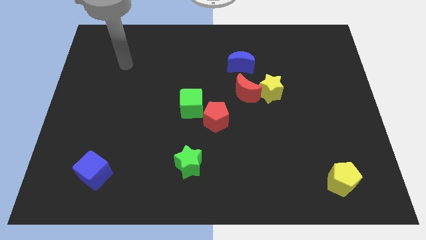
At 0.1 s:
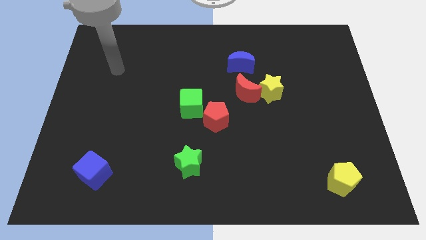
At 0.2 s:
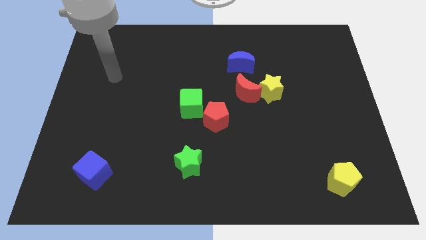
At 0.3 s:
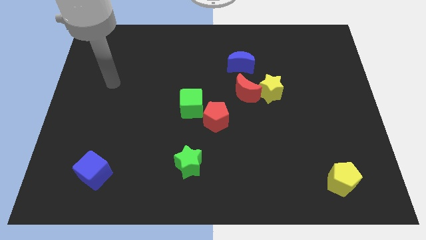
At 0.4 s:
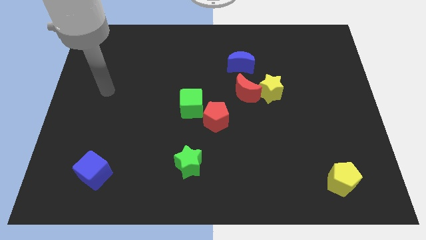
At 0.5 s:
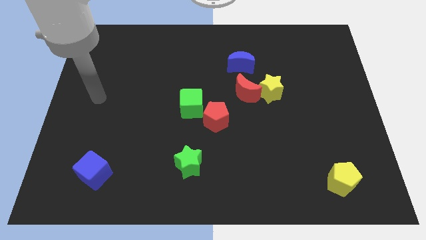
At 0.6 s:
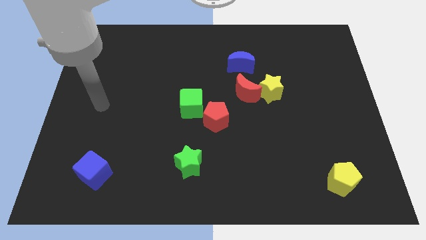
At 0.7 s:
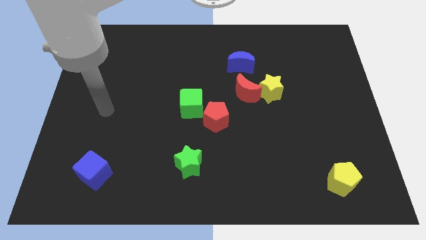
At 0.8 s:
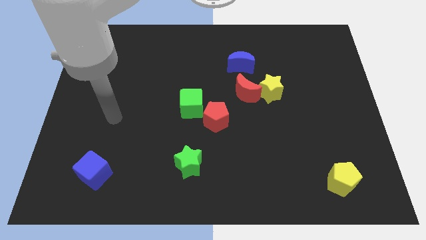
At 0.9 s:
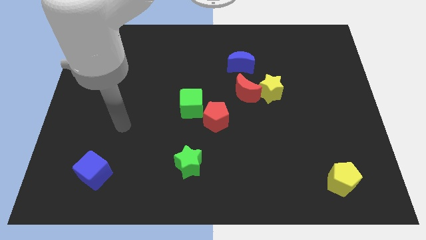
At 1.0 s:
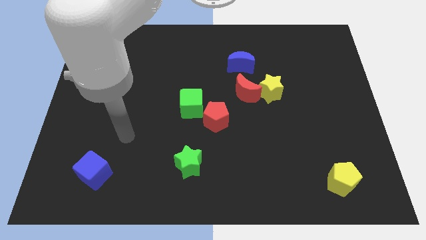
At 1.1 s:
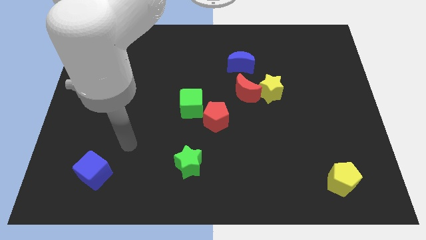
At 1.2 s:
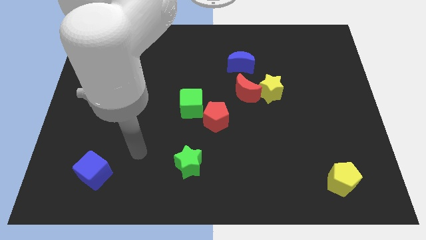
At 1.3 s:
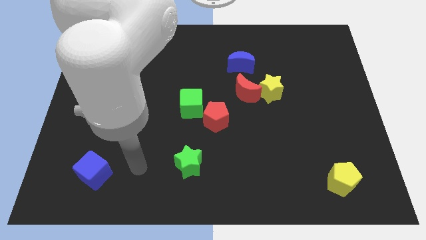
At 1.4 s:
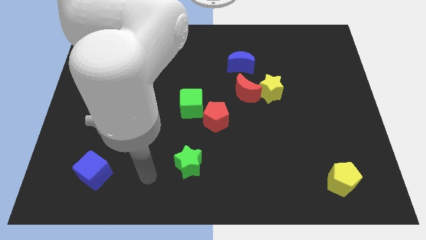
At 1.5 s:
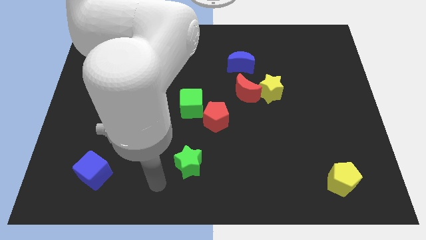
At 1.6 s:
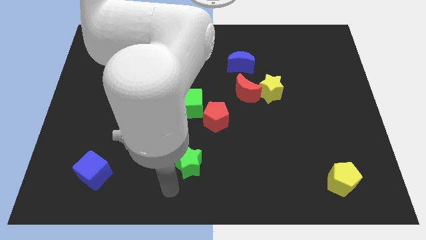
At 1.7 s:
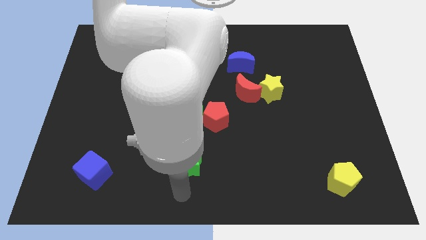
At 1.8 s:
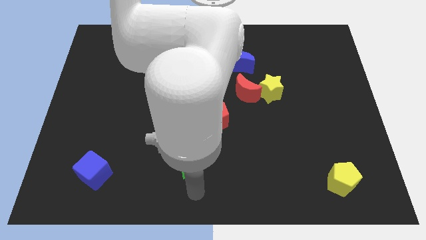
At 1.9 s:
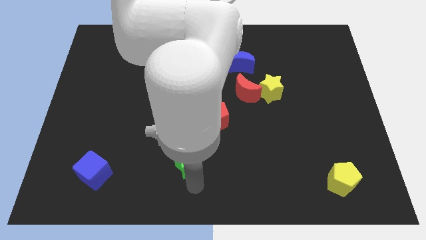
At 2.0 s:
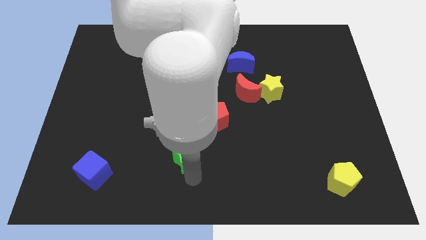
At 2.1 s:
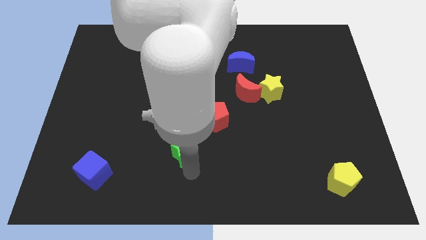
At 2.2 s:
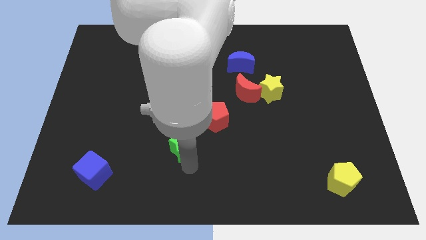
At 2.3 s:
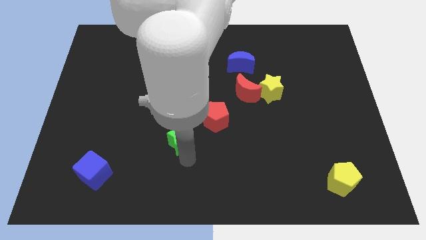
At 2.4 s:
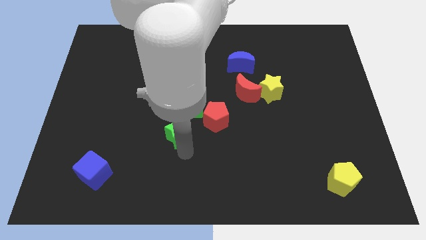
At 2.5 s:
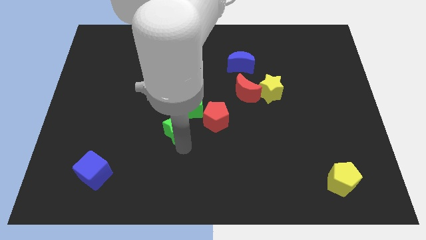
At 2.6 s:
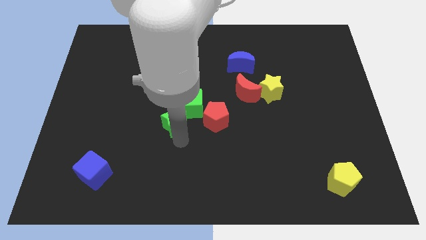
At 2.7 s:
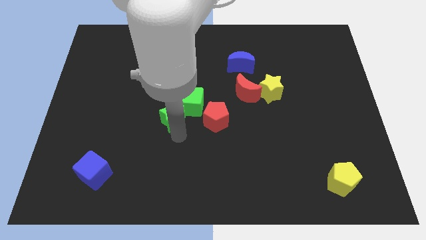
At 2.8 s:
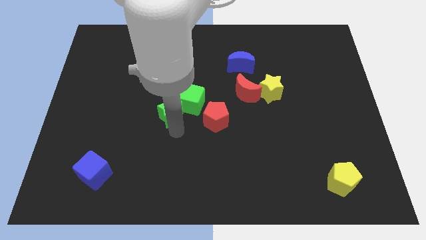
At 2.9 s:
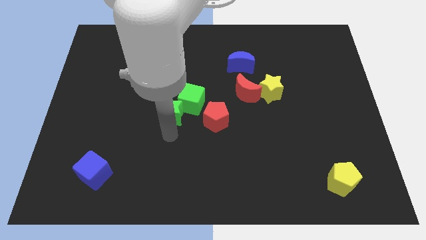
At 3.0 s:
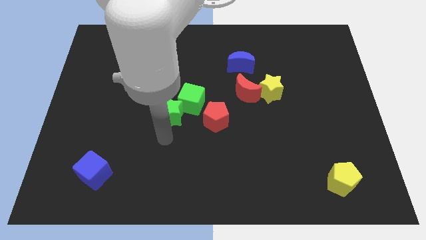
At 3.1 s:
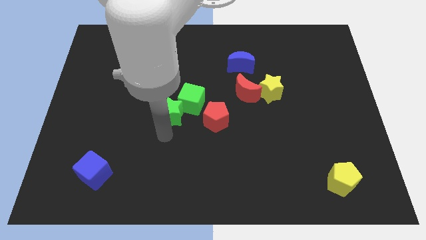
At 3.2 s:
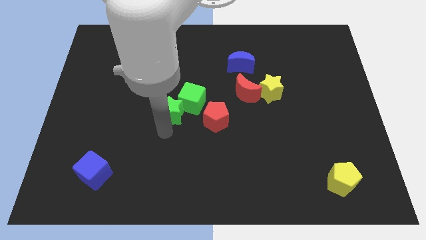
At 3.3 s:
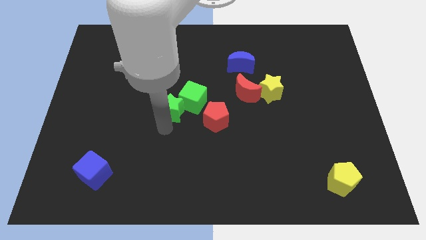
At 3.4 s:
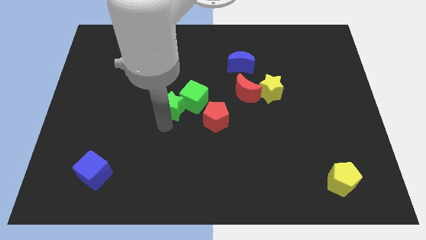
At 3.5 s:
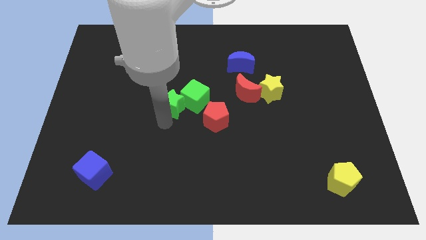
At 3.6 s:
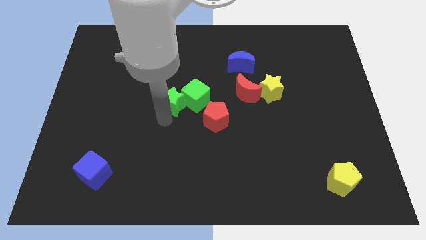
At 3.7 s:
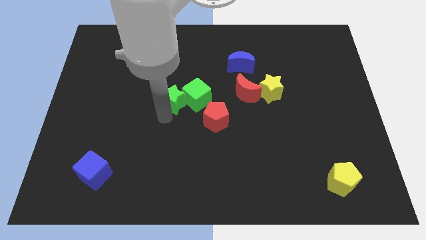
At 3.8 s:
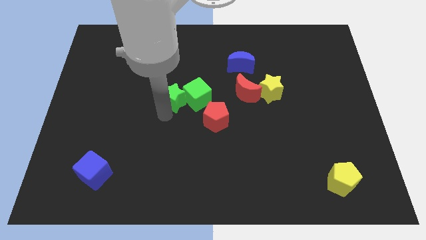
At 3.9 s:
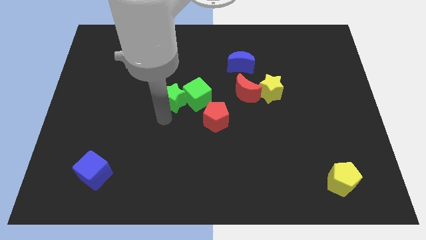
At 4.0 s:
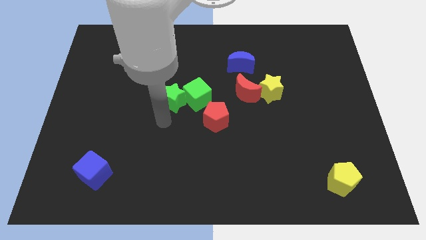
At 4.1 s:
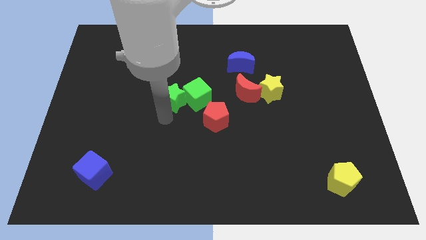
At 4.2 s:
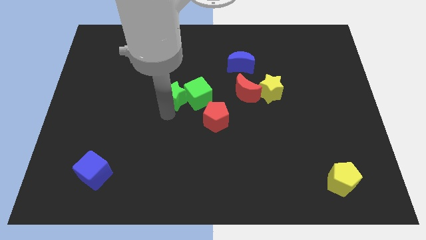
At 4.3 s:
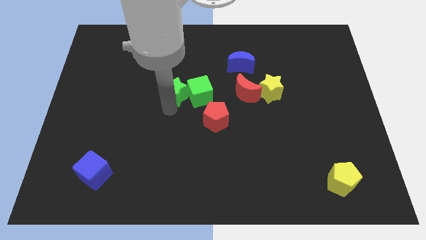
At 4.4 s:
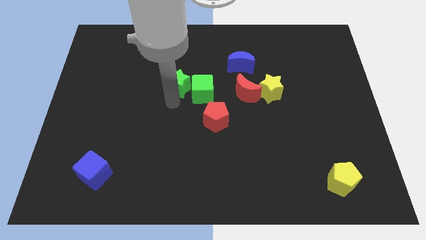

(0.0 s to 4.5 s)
push the green star up

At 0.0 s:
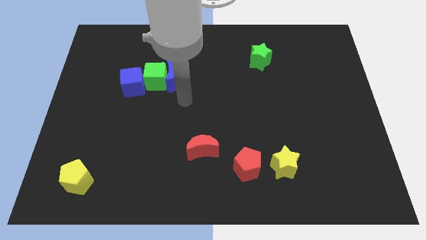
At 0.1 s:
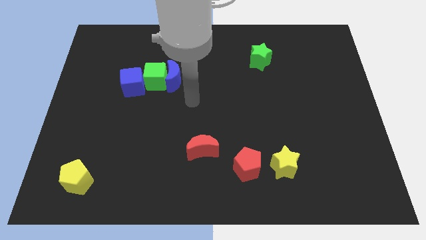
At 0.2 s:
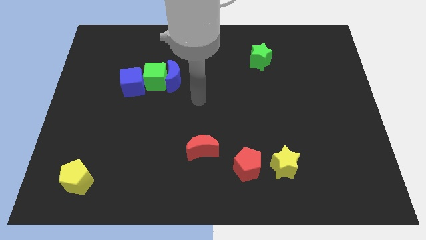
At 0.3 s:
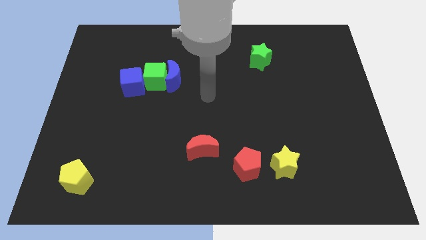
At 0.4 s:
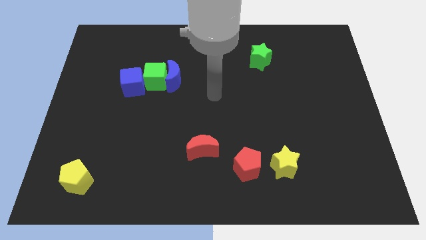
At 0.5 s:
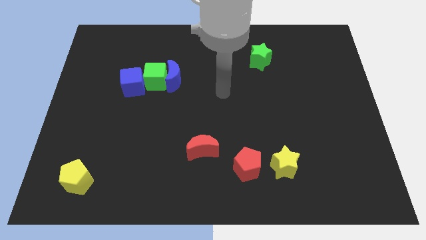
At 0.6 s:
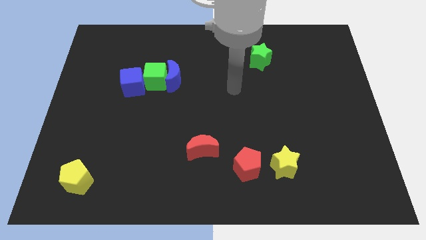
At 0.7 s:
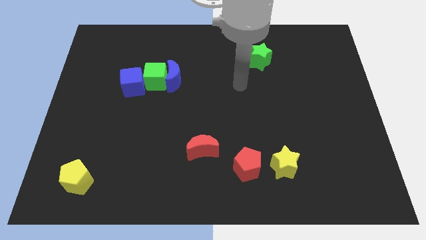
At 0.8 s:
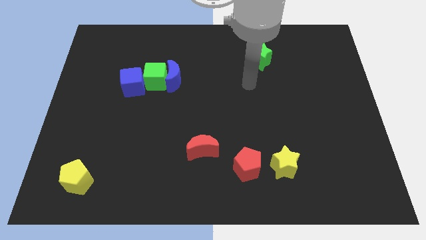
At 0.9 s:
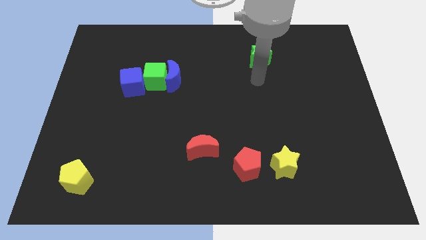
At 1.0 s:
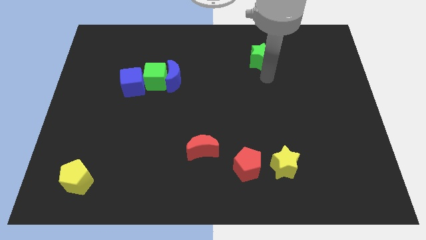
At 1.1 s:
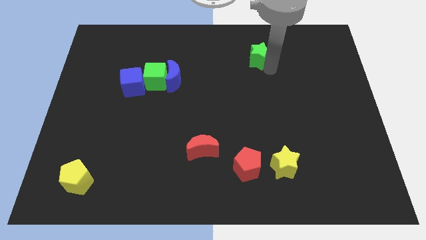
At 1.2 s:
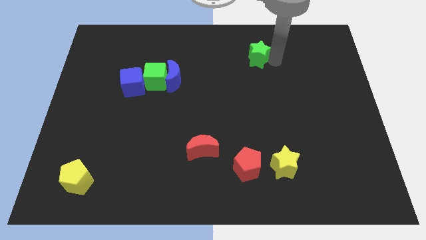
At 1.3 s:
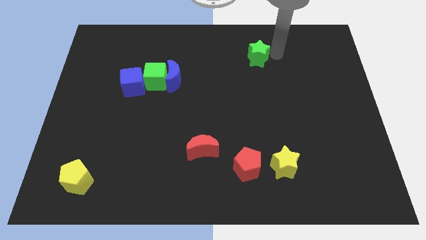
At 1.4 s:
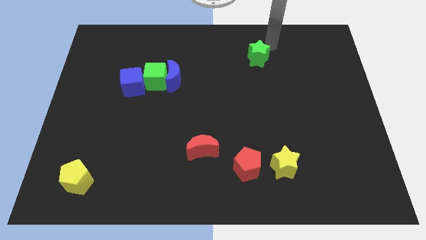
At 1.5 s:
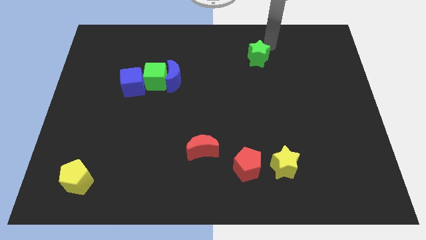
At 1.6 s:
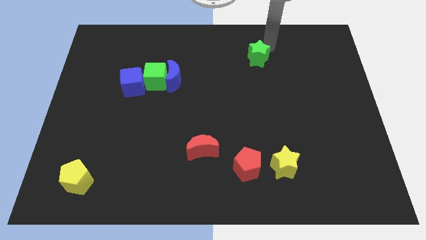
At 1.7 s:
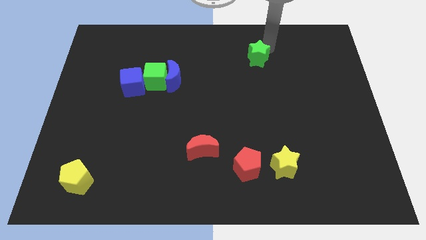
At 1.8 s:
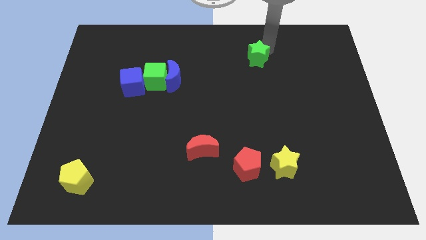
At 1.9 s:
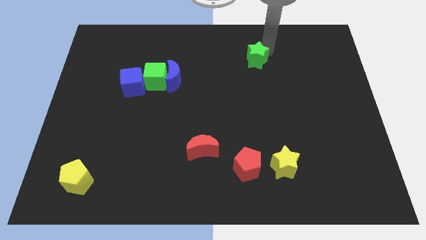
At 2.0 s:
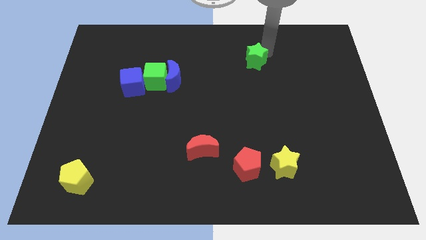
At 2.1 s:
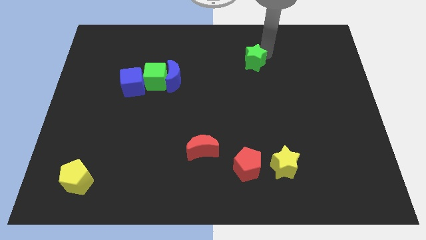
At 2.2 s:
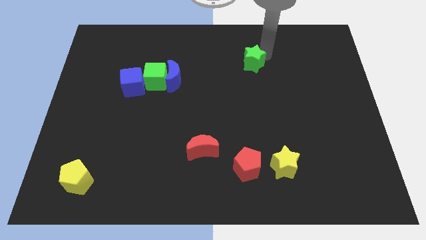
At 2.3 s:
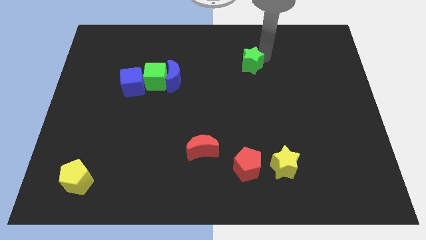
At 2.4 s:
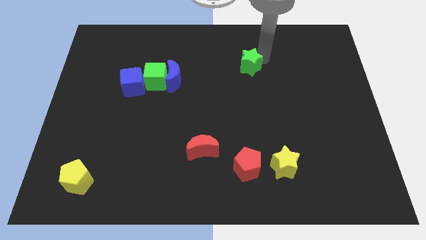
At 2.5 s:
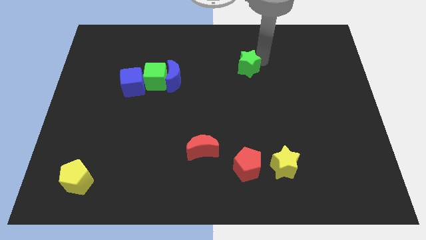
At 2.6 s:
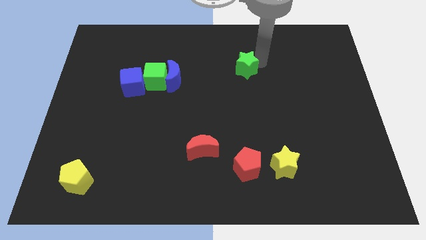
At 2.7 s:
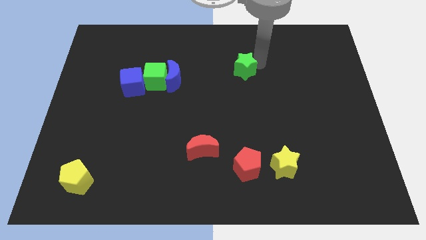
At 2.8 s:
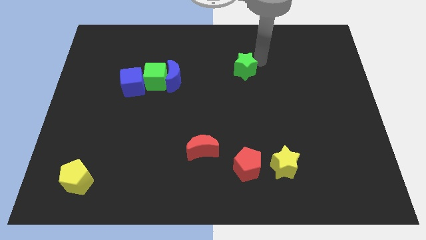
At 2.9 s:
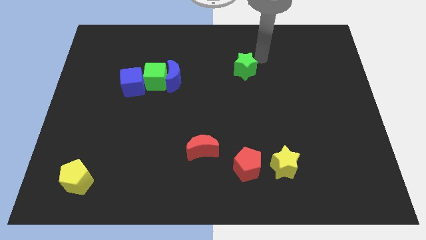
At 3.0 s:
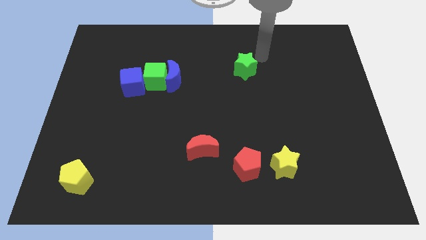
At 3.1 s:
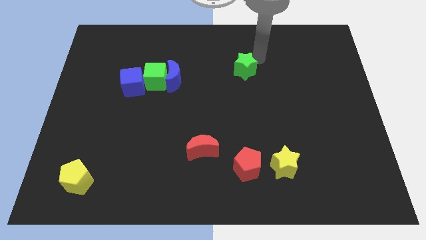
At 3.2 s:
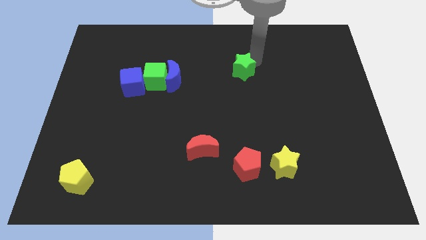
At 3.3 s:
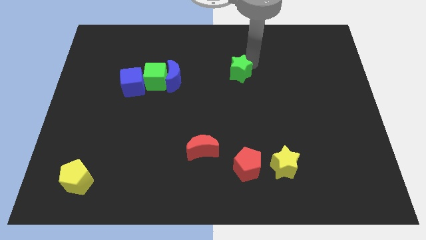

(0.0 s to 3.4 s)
slightly slide the green star down and left
